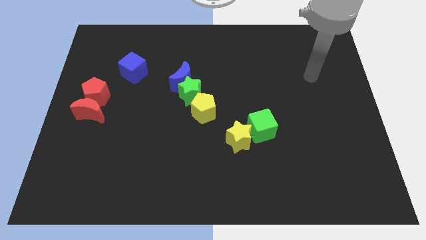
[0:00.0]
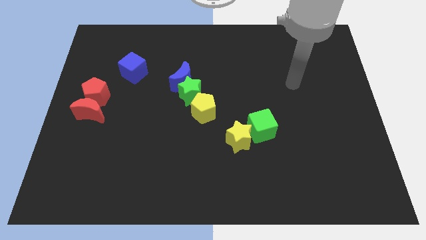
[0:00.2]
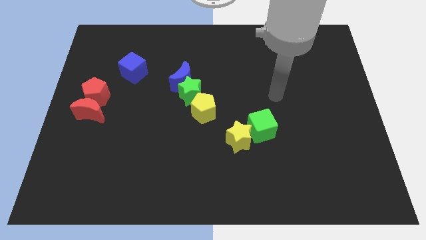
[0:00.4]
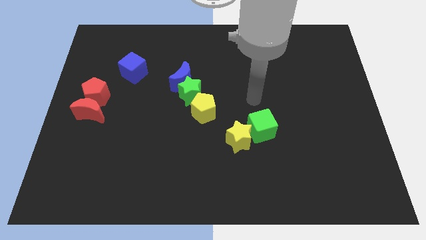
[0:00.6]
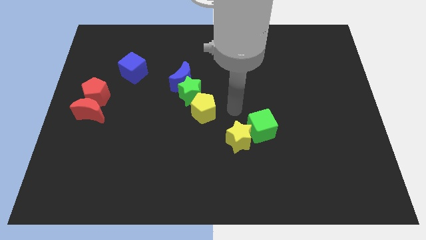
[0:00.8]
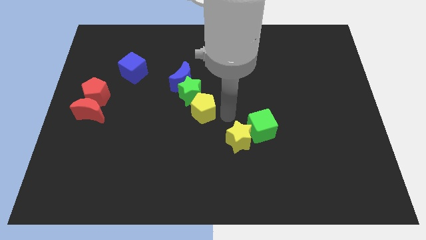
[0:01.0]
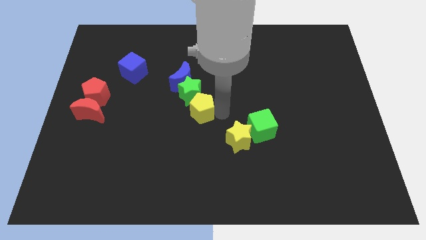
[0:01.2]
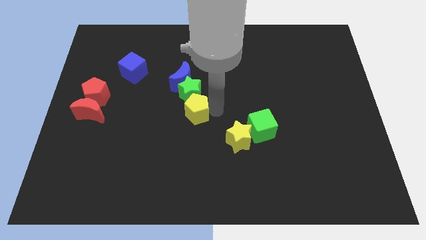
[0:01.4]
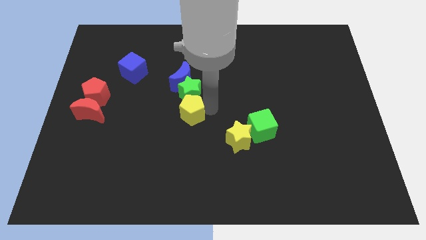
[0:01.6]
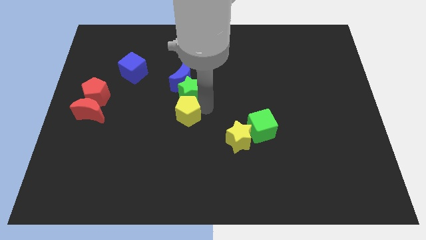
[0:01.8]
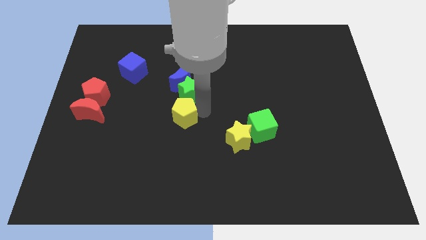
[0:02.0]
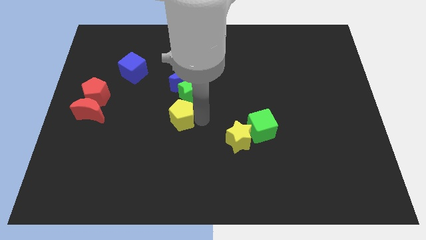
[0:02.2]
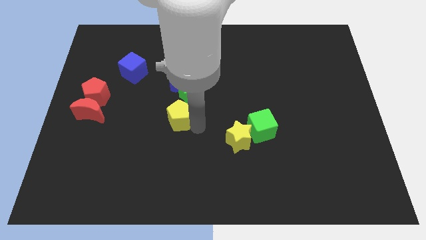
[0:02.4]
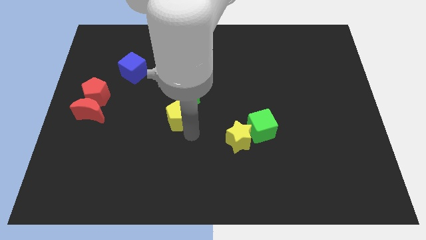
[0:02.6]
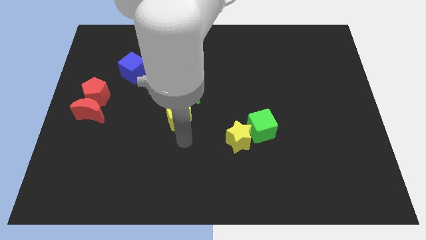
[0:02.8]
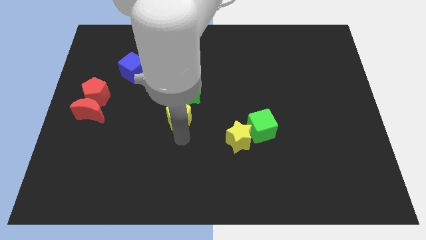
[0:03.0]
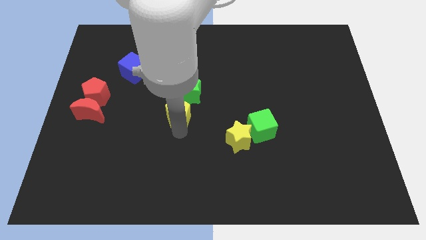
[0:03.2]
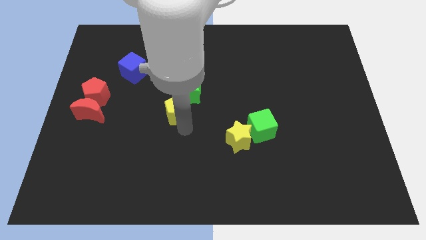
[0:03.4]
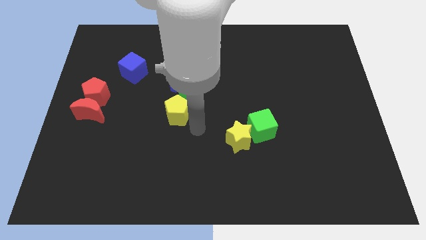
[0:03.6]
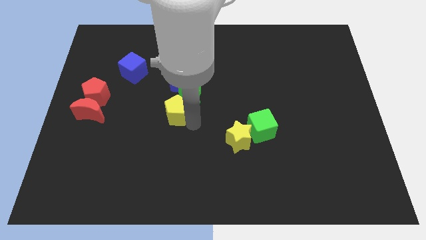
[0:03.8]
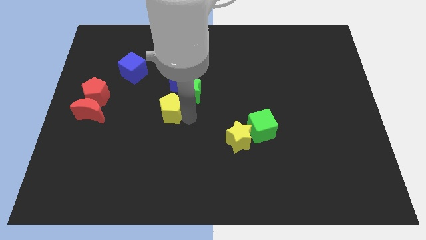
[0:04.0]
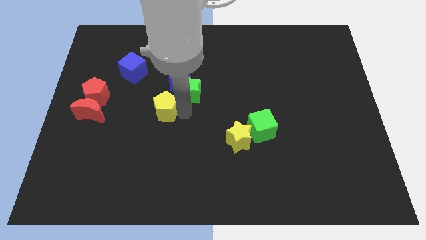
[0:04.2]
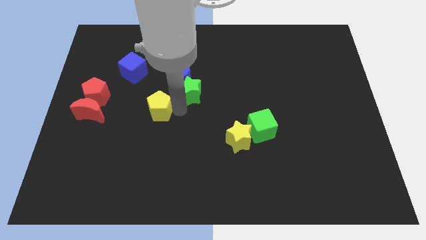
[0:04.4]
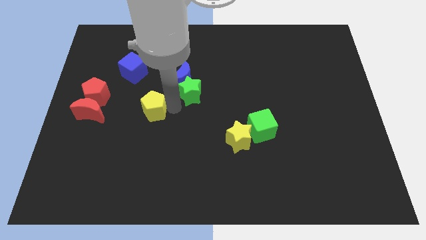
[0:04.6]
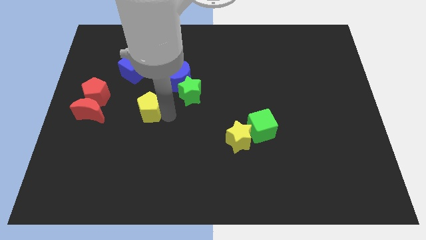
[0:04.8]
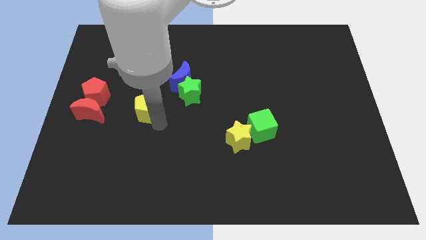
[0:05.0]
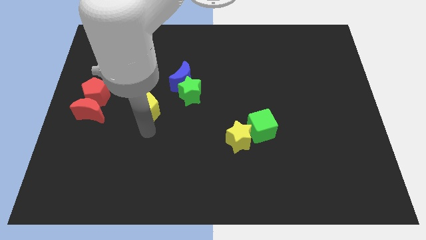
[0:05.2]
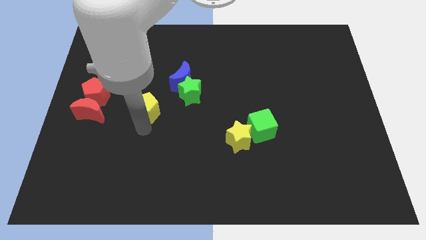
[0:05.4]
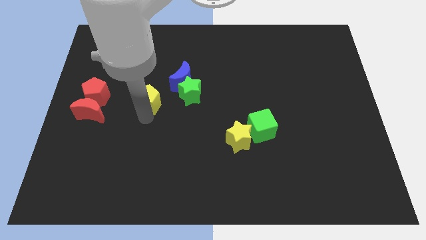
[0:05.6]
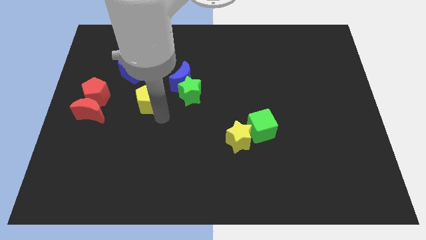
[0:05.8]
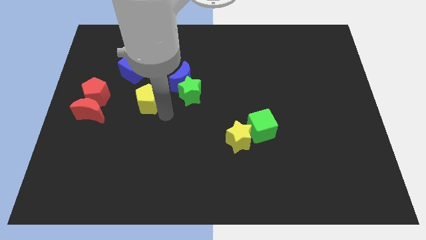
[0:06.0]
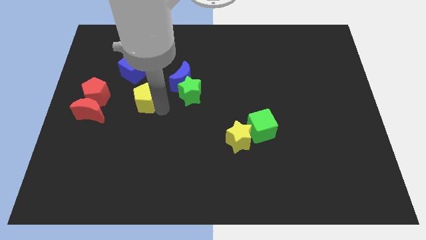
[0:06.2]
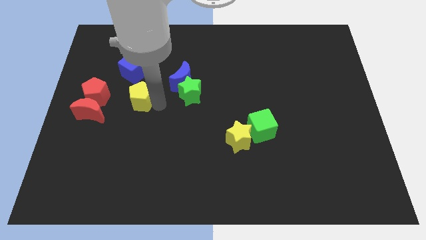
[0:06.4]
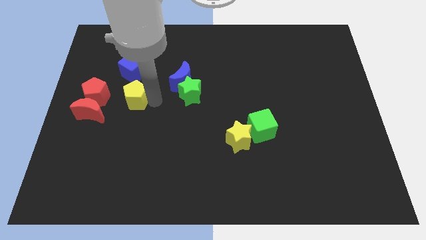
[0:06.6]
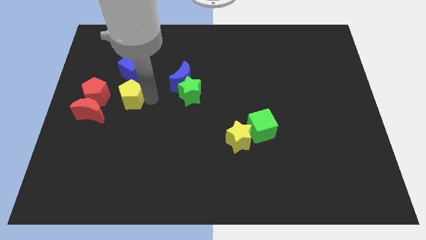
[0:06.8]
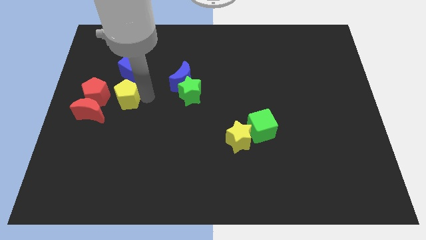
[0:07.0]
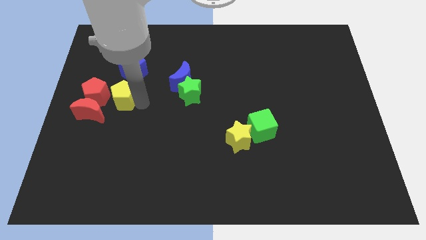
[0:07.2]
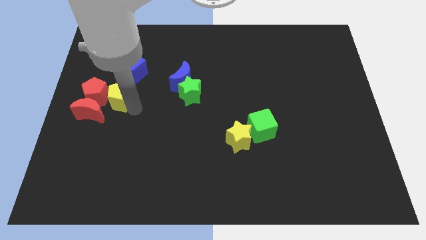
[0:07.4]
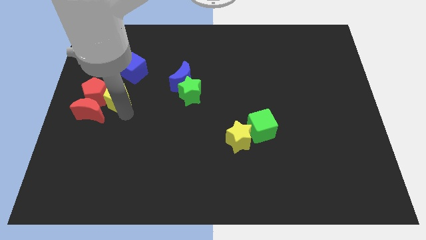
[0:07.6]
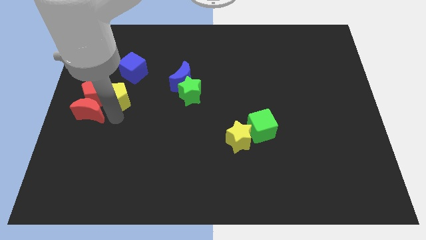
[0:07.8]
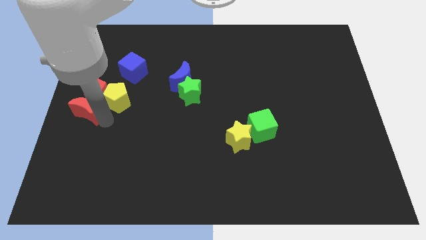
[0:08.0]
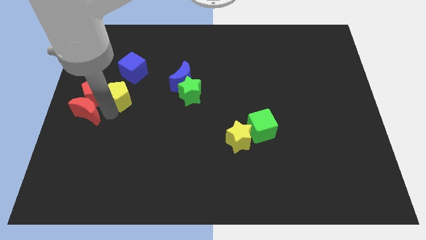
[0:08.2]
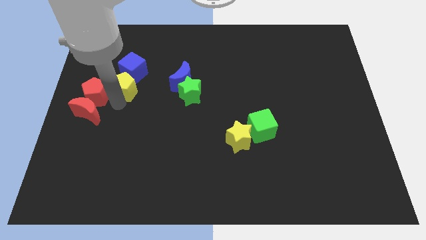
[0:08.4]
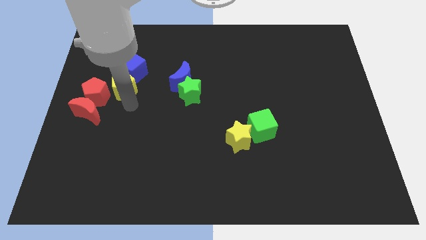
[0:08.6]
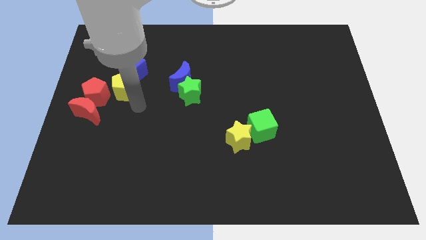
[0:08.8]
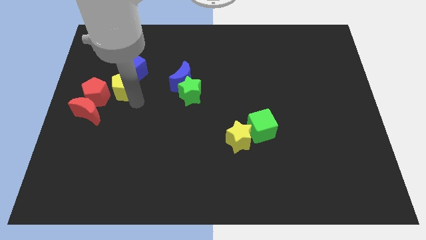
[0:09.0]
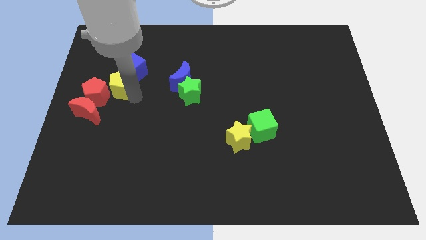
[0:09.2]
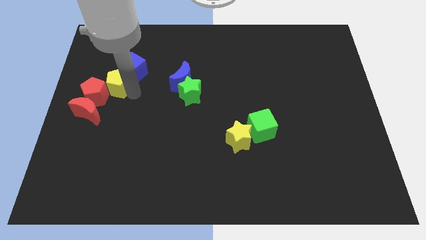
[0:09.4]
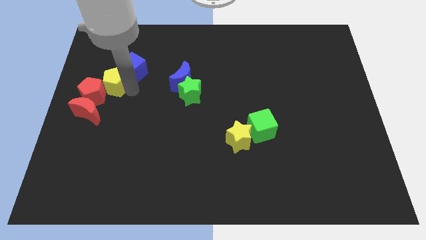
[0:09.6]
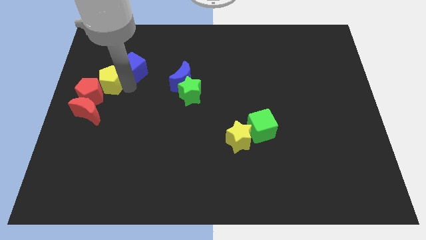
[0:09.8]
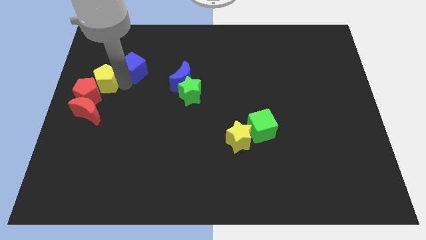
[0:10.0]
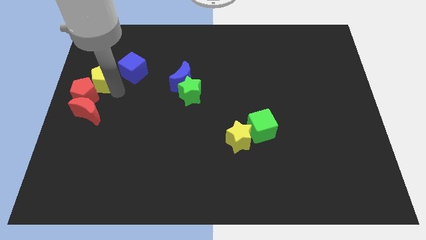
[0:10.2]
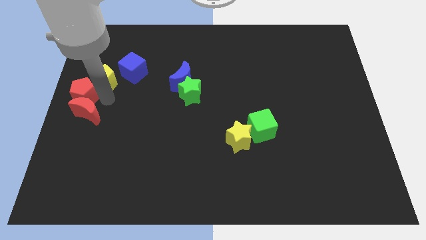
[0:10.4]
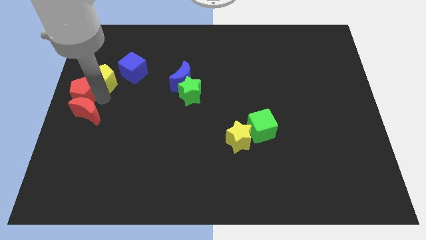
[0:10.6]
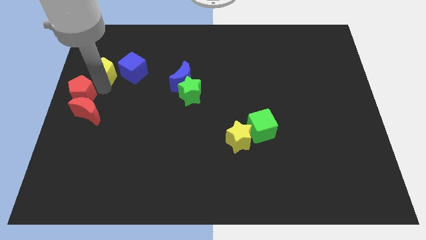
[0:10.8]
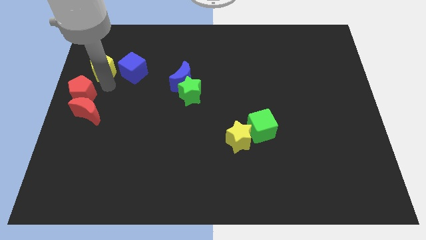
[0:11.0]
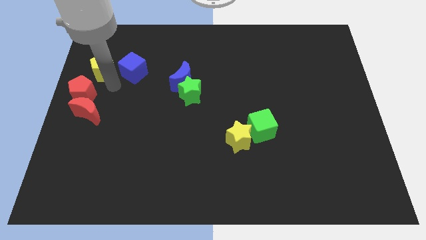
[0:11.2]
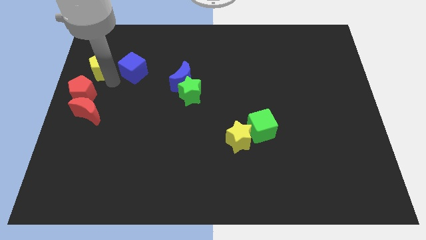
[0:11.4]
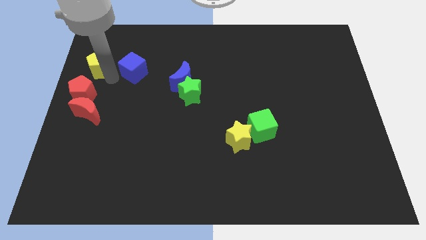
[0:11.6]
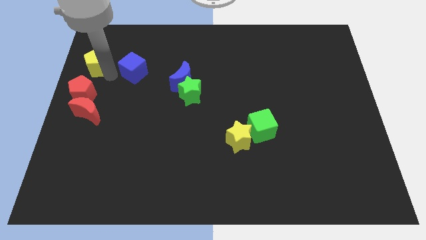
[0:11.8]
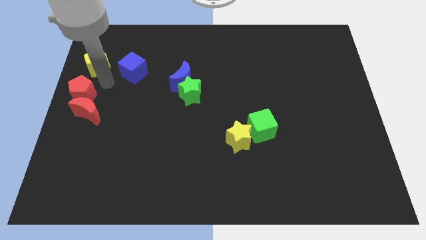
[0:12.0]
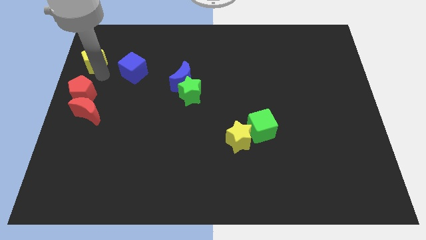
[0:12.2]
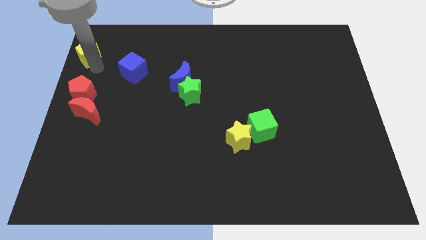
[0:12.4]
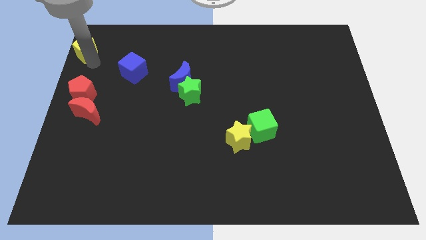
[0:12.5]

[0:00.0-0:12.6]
move the yellow pentagon to the upper left corner

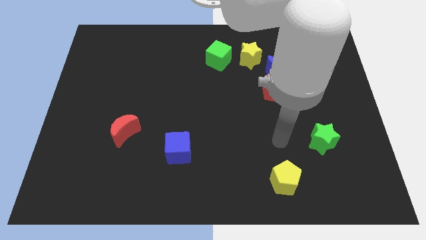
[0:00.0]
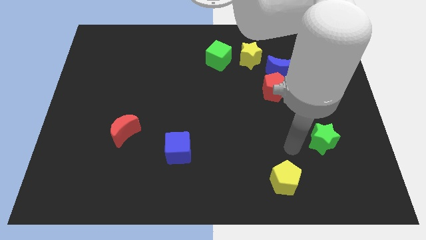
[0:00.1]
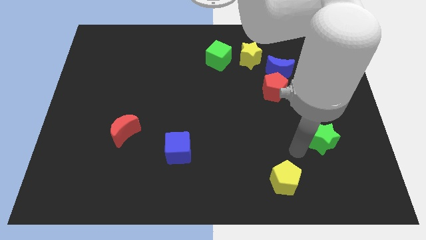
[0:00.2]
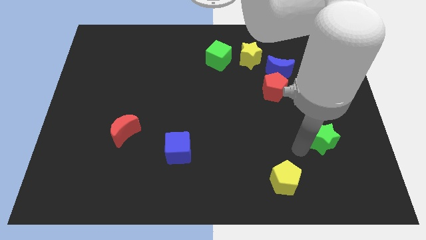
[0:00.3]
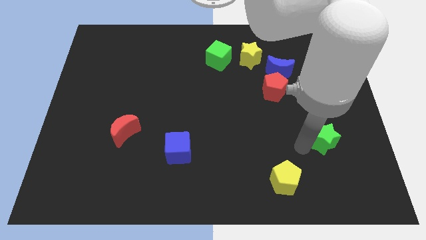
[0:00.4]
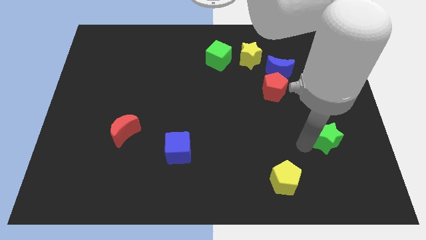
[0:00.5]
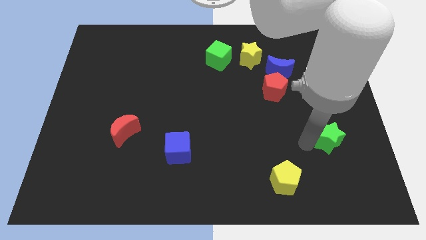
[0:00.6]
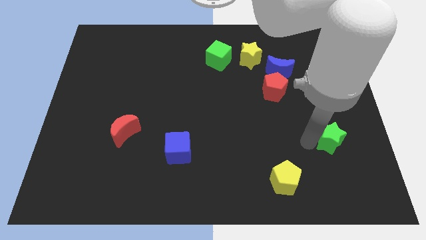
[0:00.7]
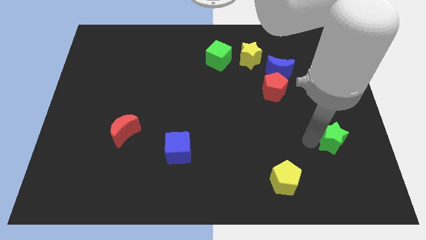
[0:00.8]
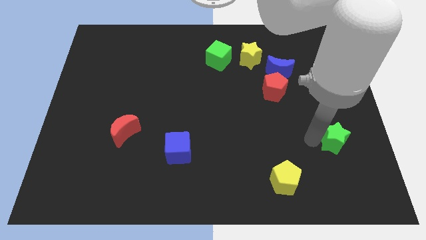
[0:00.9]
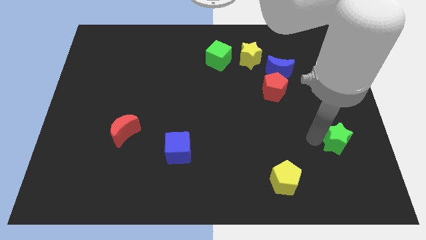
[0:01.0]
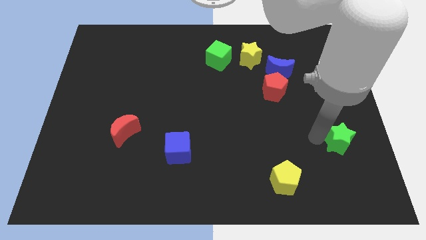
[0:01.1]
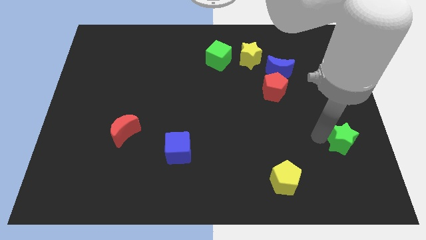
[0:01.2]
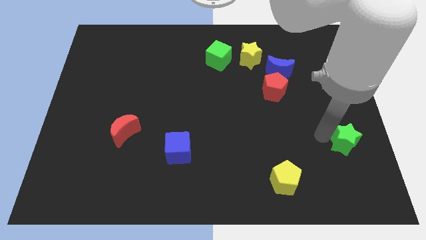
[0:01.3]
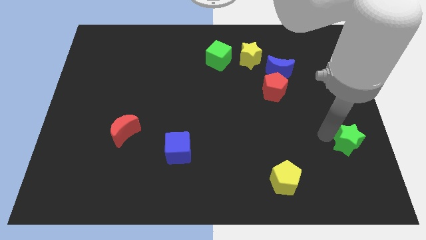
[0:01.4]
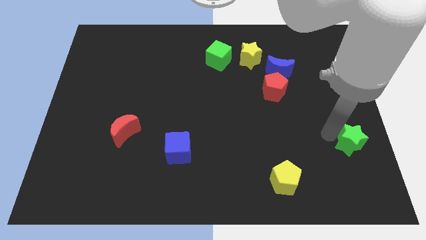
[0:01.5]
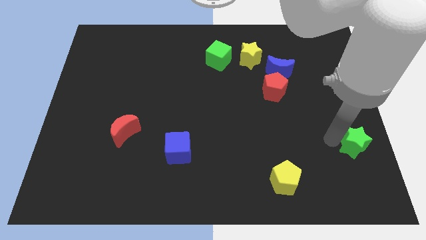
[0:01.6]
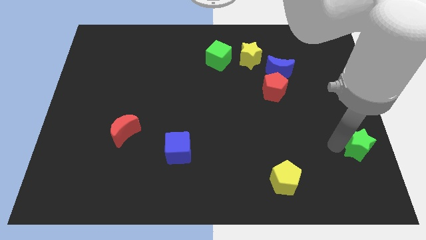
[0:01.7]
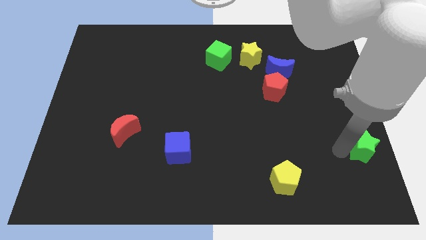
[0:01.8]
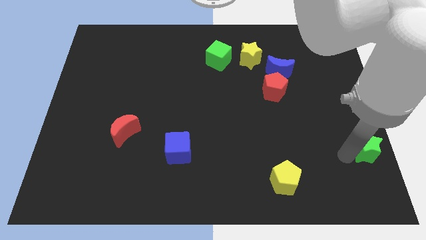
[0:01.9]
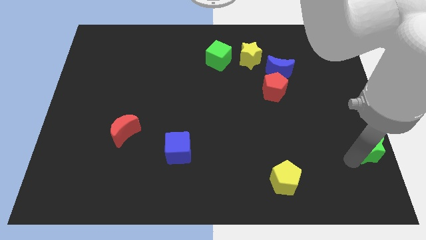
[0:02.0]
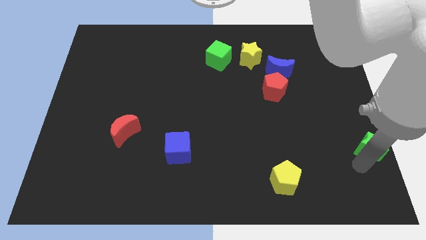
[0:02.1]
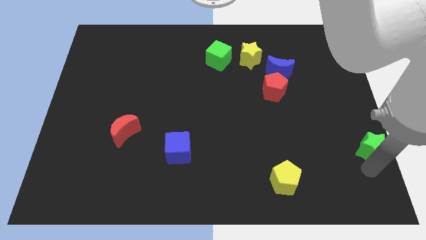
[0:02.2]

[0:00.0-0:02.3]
put the green star to the right side of the board
